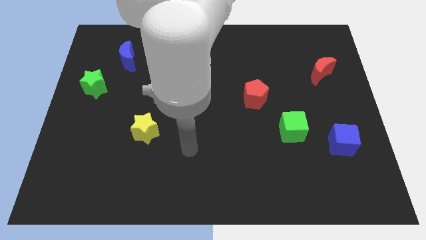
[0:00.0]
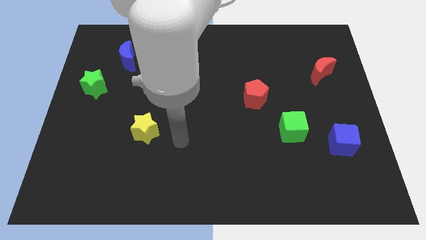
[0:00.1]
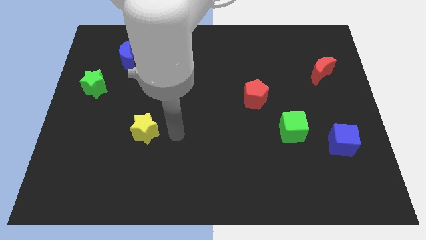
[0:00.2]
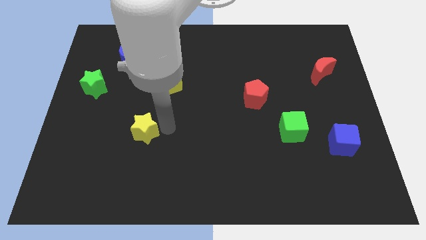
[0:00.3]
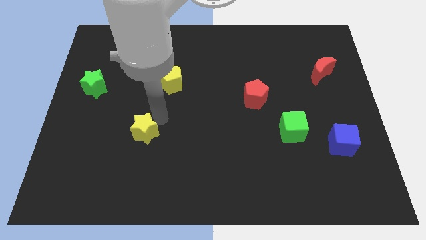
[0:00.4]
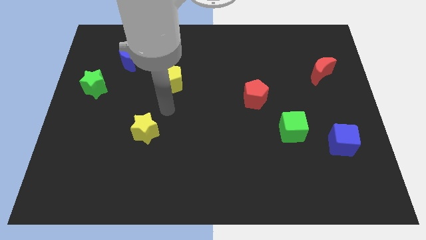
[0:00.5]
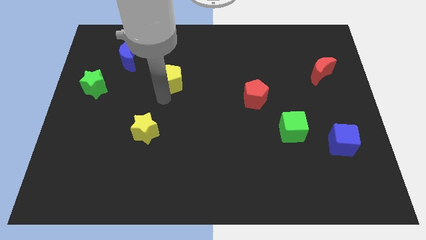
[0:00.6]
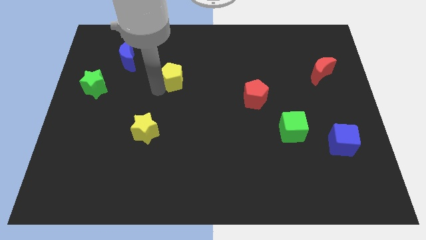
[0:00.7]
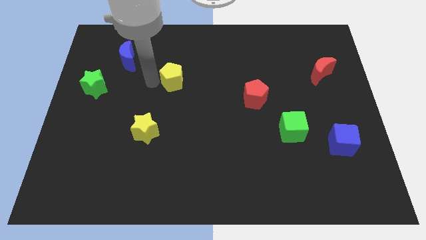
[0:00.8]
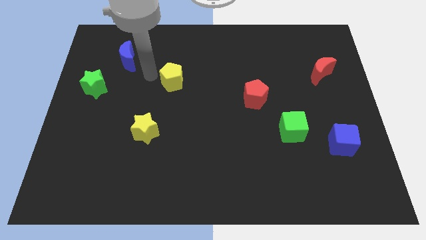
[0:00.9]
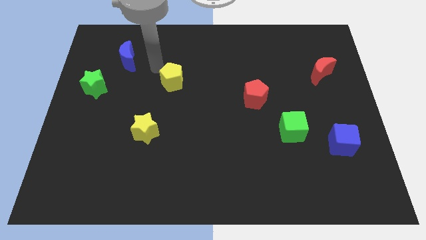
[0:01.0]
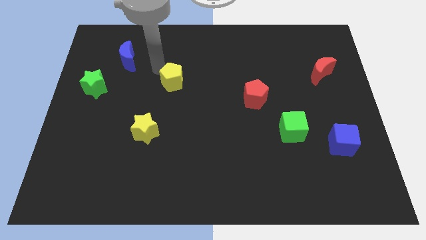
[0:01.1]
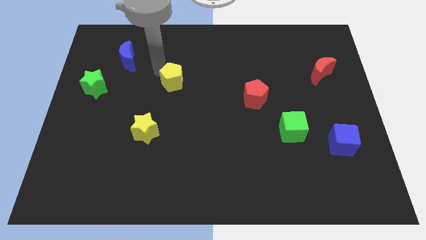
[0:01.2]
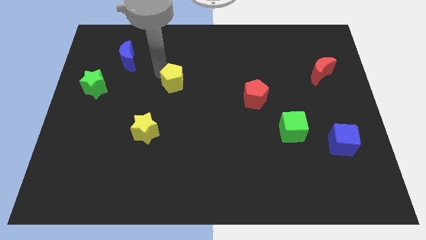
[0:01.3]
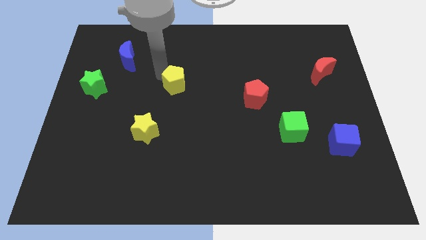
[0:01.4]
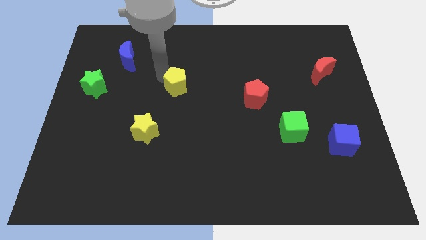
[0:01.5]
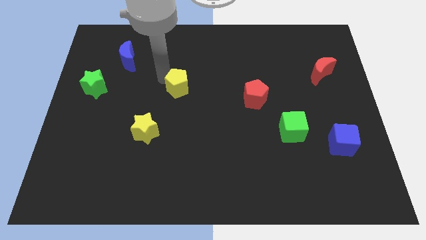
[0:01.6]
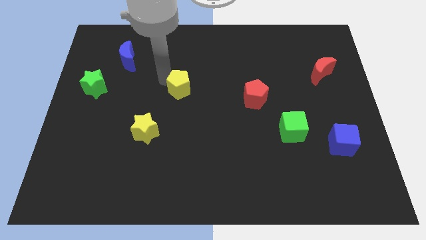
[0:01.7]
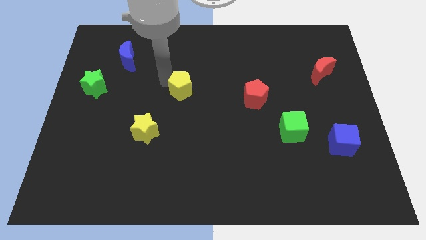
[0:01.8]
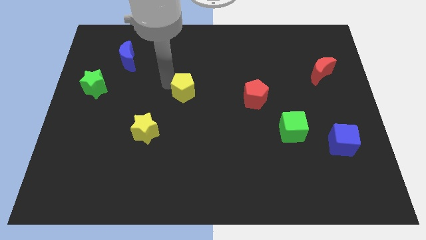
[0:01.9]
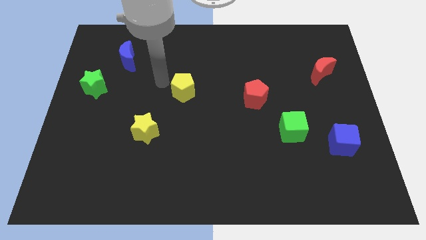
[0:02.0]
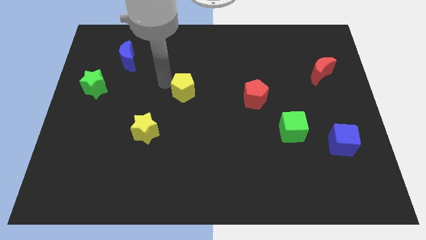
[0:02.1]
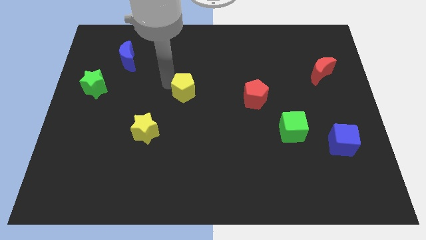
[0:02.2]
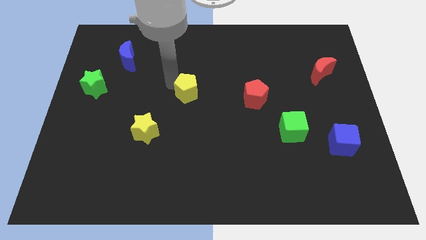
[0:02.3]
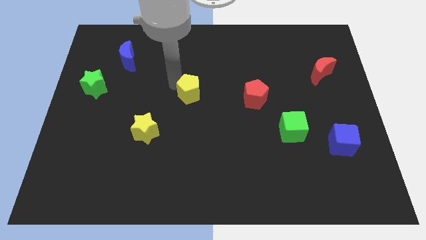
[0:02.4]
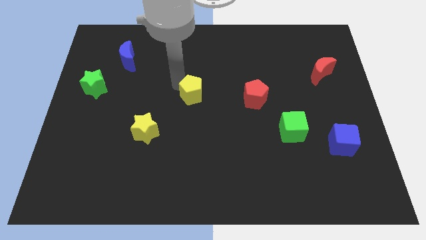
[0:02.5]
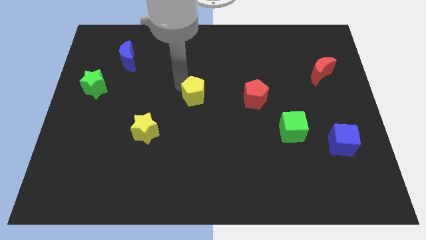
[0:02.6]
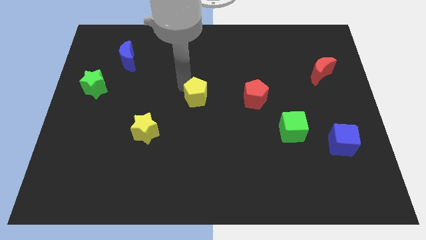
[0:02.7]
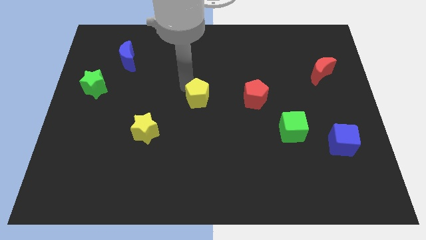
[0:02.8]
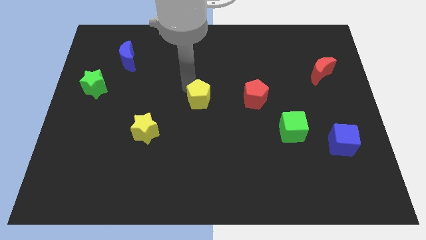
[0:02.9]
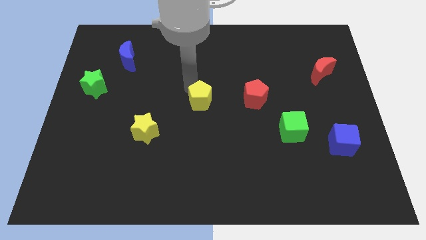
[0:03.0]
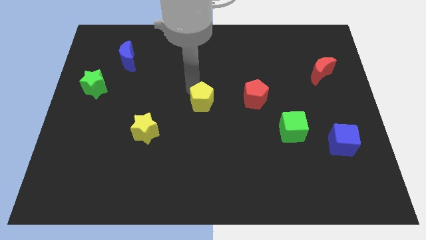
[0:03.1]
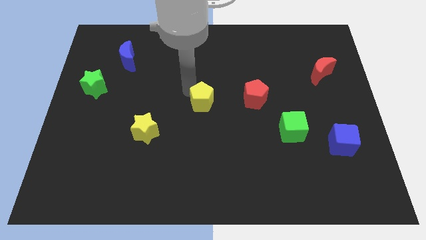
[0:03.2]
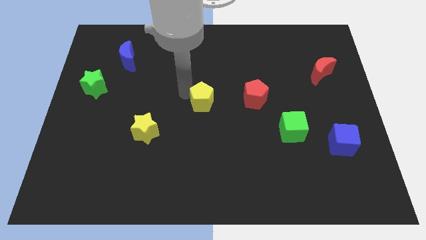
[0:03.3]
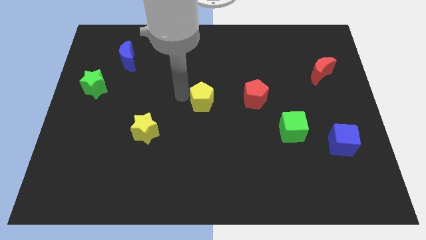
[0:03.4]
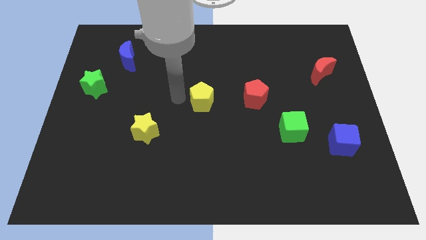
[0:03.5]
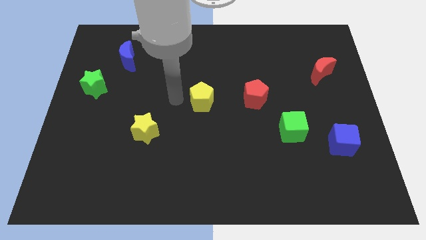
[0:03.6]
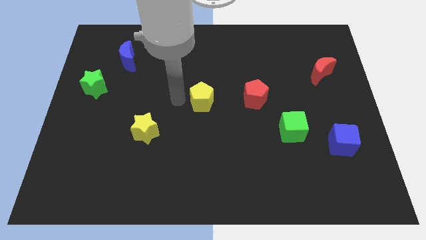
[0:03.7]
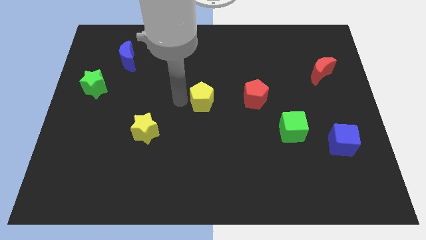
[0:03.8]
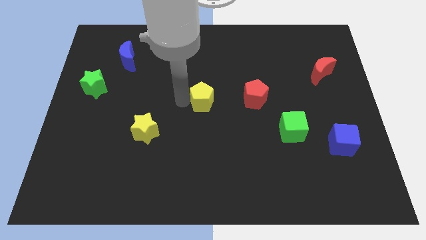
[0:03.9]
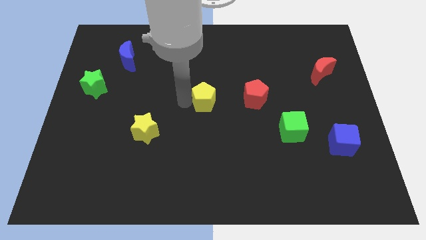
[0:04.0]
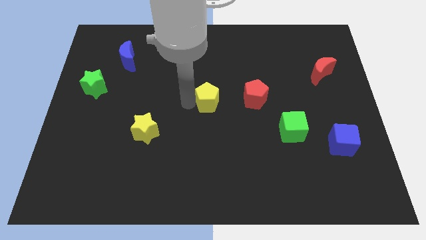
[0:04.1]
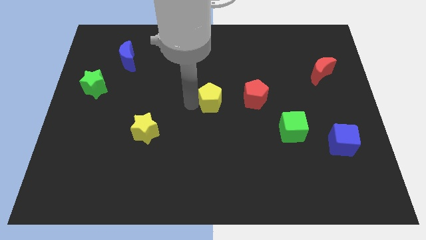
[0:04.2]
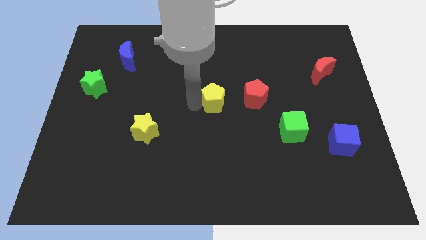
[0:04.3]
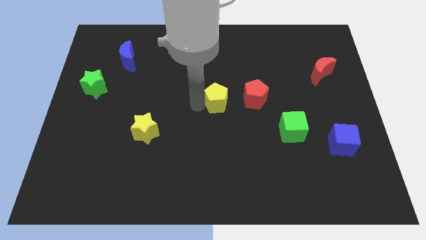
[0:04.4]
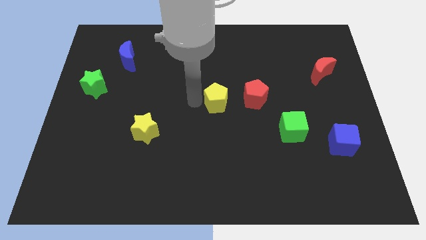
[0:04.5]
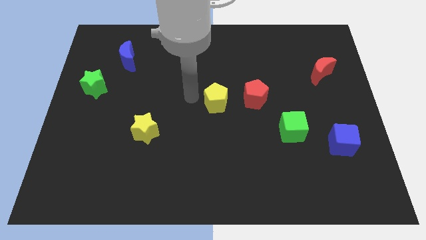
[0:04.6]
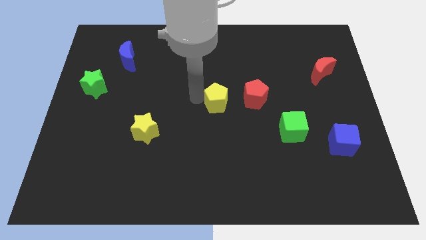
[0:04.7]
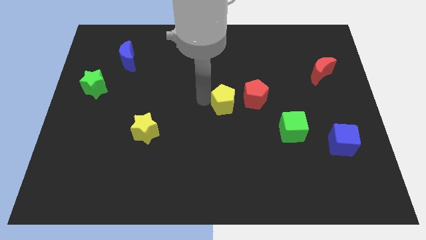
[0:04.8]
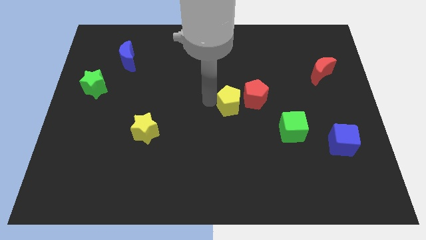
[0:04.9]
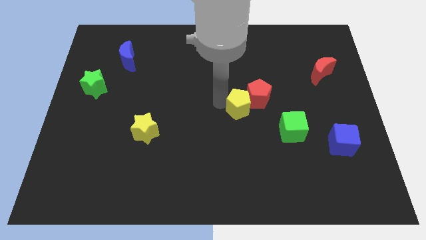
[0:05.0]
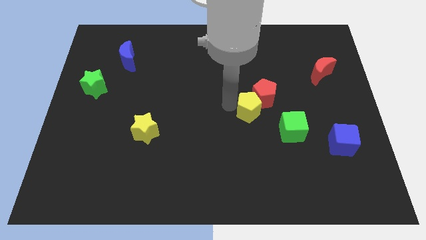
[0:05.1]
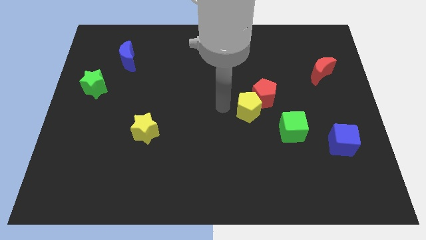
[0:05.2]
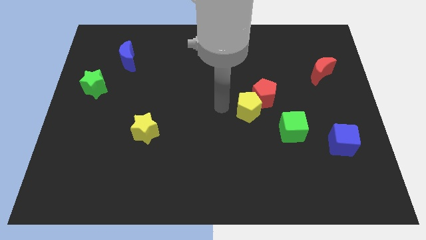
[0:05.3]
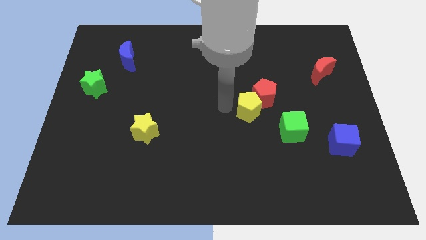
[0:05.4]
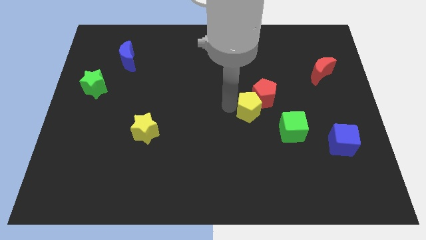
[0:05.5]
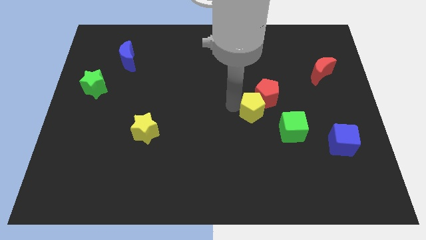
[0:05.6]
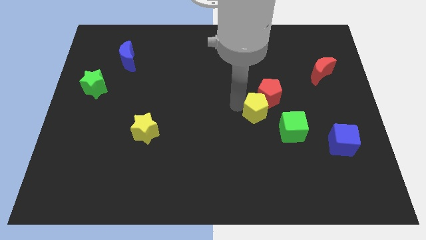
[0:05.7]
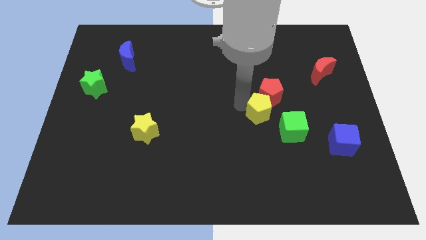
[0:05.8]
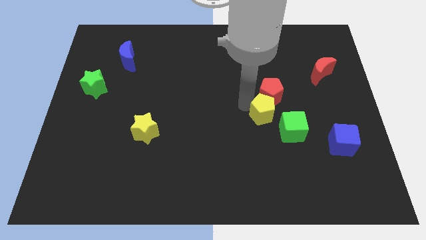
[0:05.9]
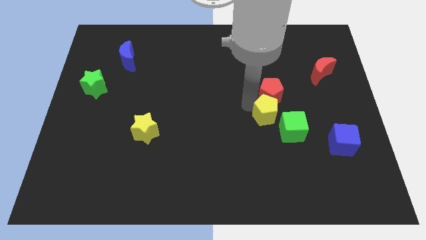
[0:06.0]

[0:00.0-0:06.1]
put the yellow pentagon to the bottom right of the red pentagon

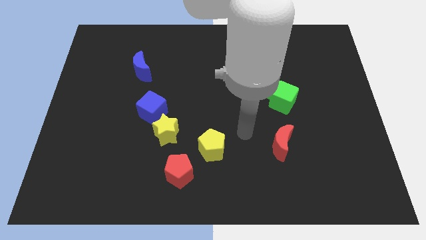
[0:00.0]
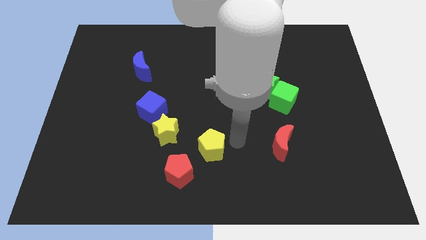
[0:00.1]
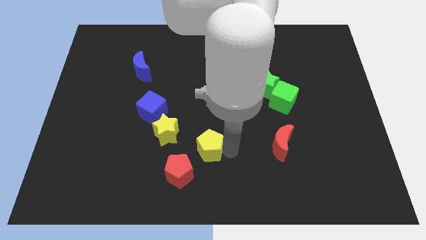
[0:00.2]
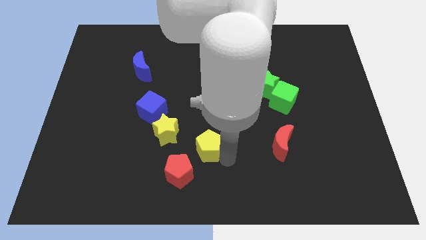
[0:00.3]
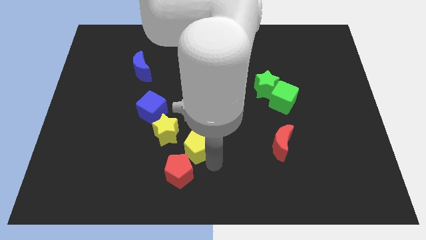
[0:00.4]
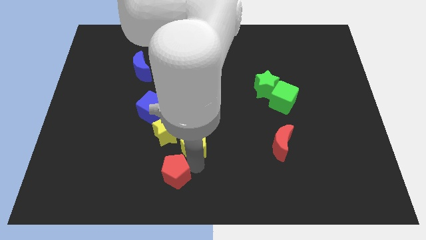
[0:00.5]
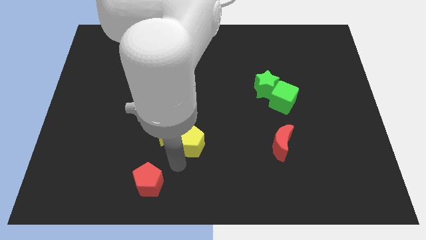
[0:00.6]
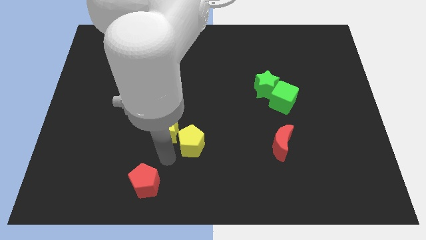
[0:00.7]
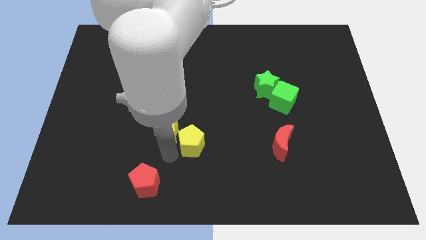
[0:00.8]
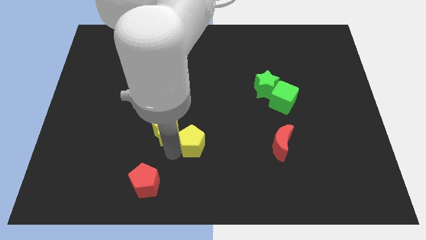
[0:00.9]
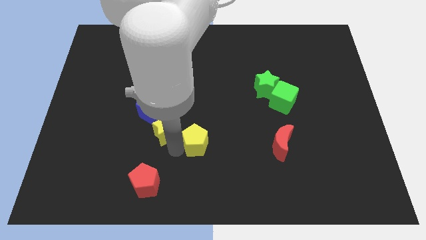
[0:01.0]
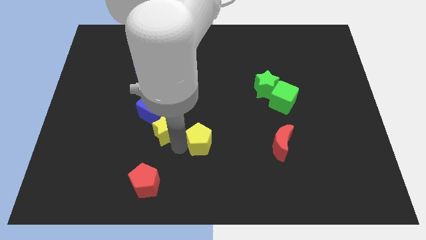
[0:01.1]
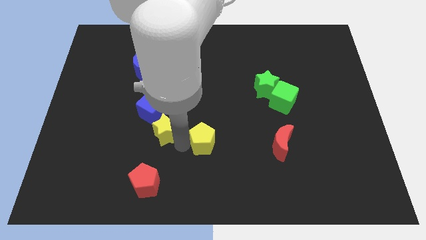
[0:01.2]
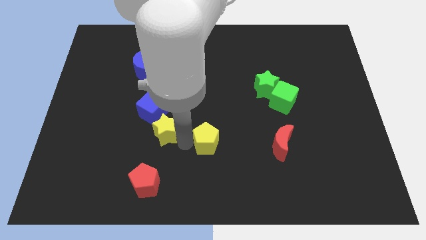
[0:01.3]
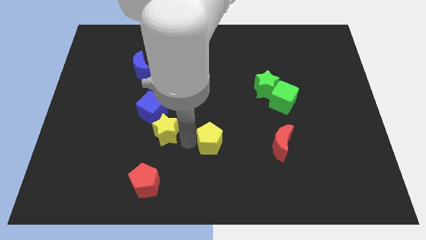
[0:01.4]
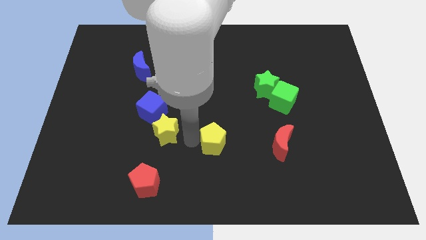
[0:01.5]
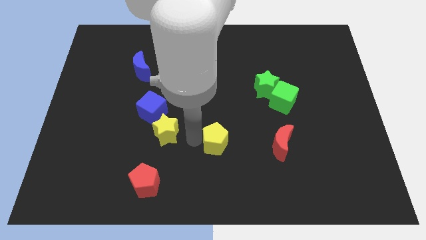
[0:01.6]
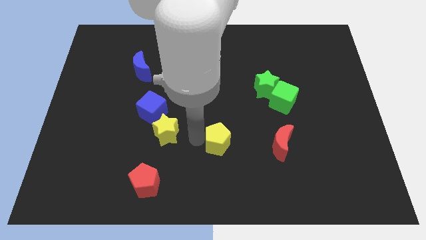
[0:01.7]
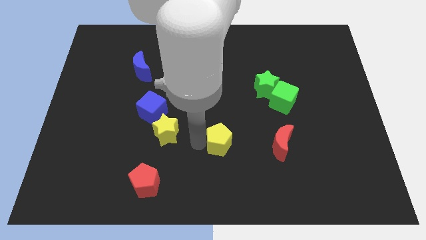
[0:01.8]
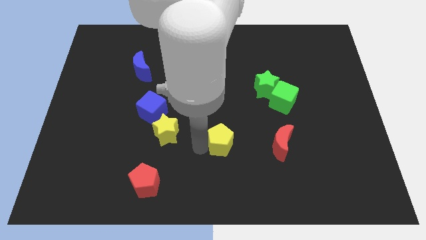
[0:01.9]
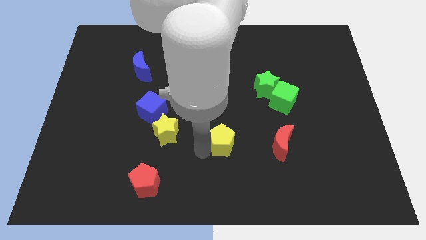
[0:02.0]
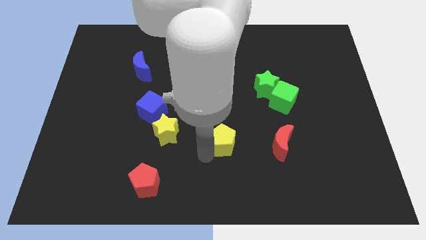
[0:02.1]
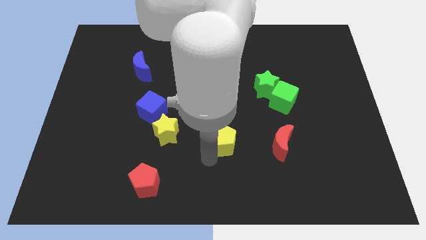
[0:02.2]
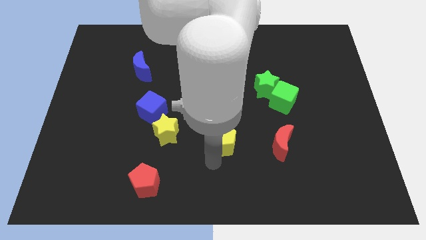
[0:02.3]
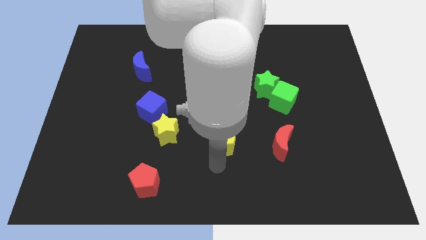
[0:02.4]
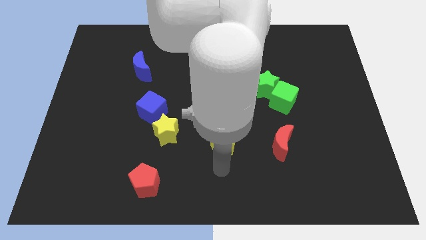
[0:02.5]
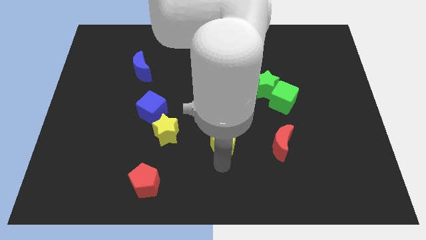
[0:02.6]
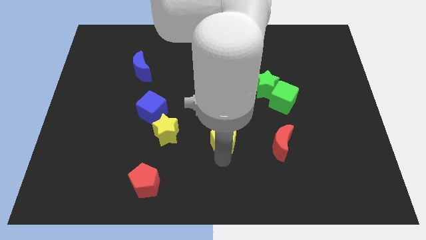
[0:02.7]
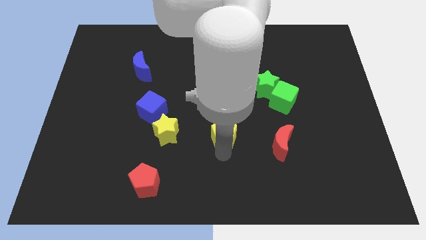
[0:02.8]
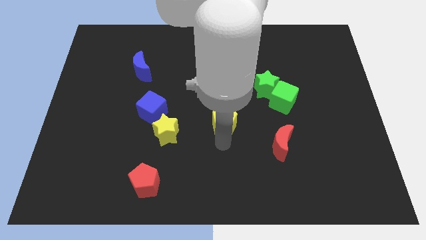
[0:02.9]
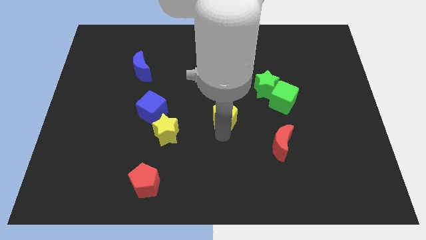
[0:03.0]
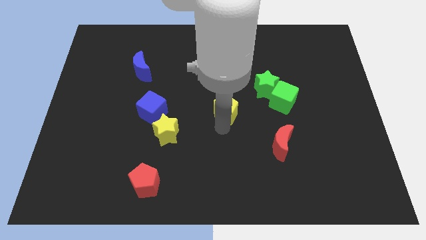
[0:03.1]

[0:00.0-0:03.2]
put the yellow pentagon to the left side of the green cube
